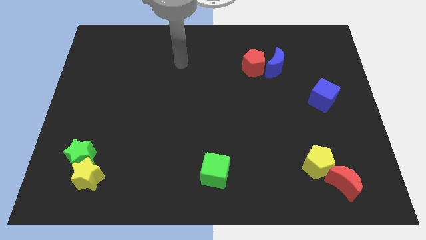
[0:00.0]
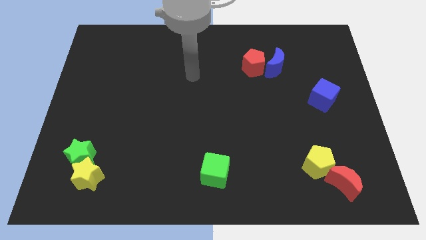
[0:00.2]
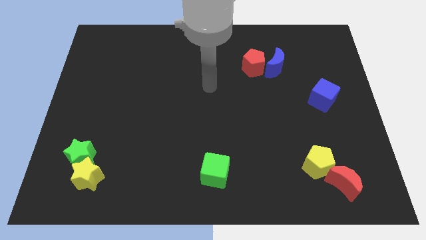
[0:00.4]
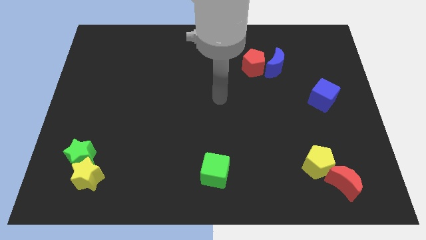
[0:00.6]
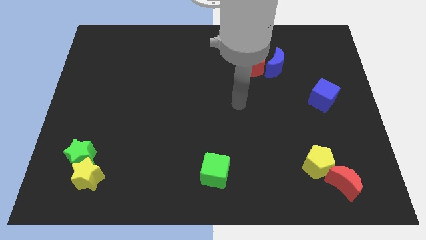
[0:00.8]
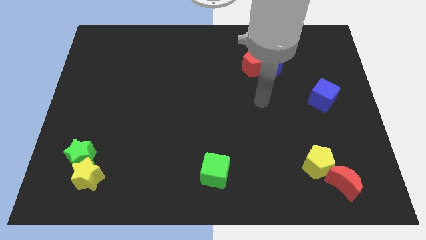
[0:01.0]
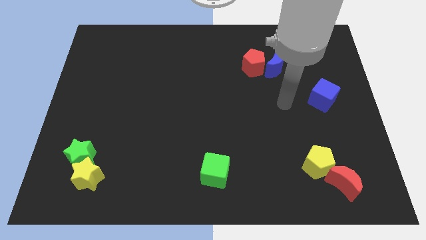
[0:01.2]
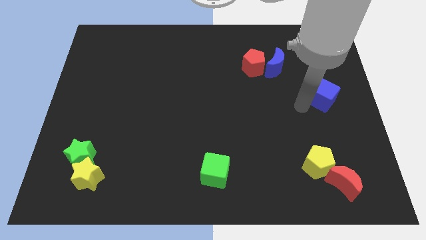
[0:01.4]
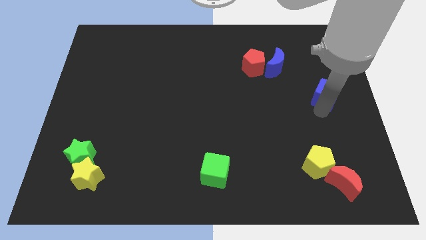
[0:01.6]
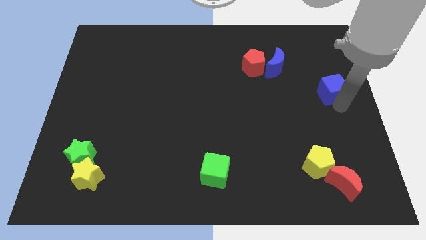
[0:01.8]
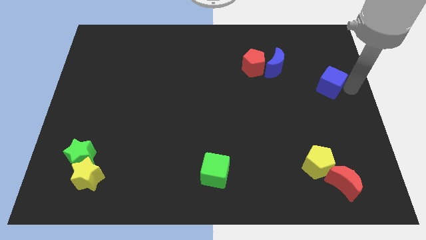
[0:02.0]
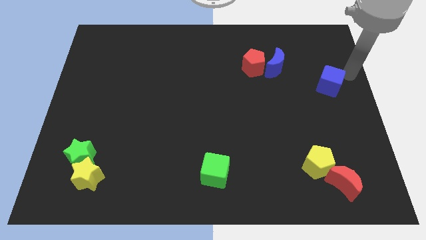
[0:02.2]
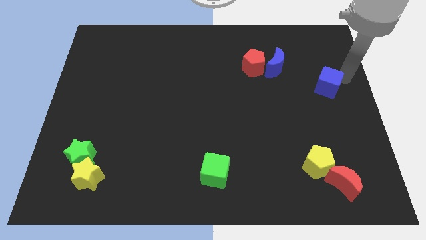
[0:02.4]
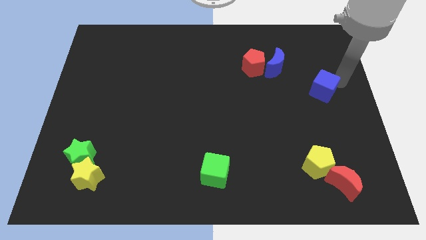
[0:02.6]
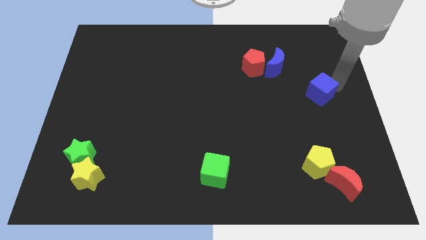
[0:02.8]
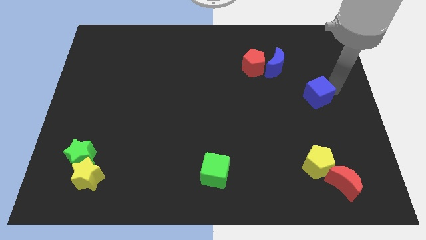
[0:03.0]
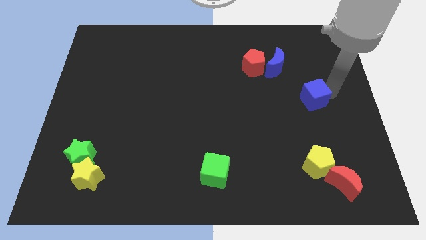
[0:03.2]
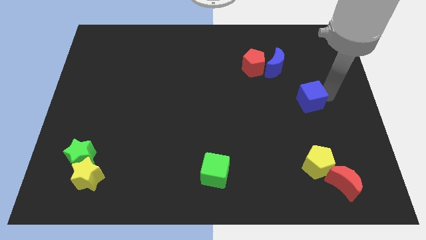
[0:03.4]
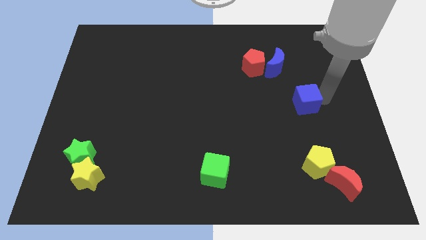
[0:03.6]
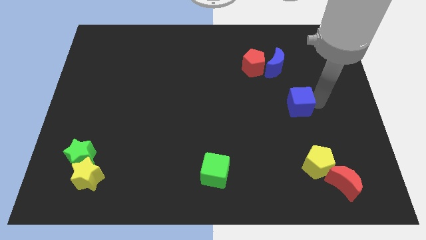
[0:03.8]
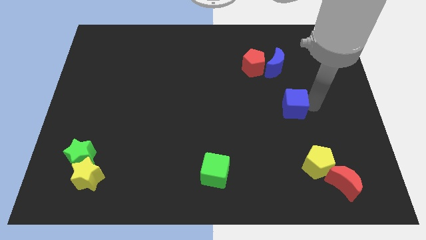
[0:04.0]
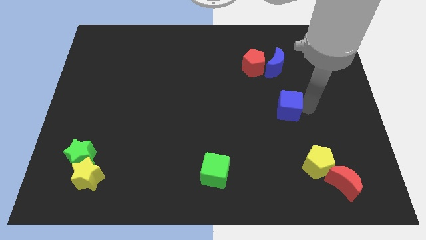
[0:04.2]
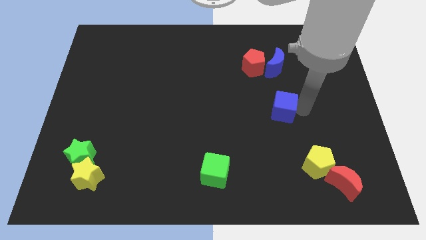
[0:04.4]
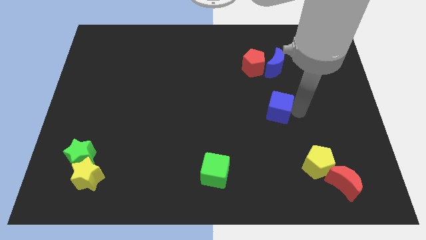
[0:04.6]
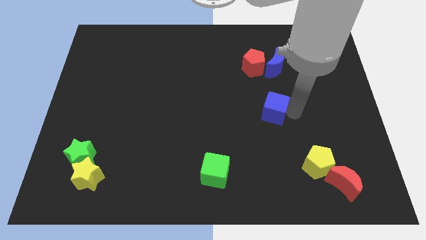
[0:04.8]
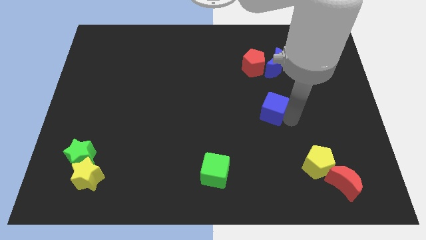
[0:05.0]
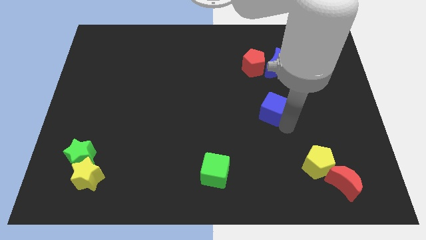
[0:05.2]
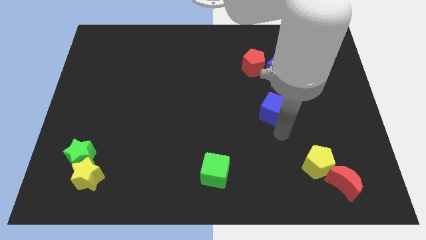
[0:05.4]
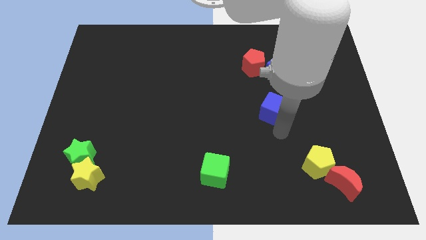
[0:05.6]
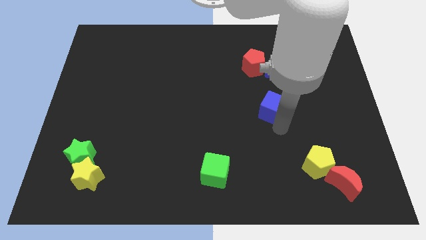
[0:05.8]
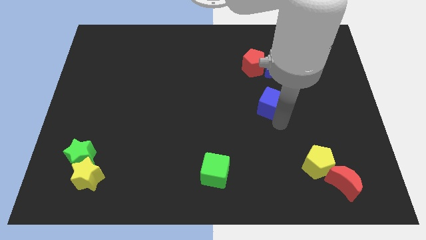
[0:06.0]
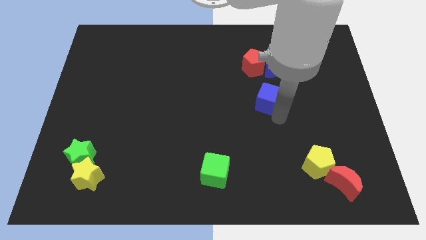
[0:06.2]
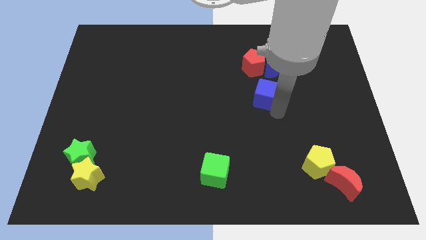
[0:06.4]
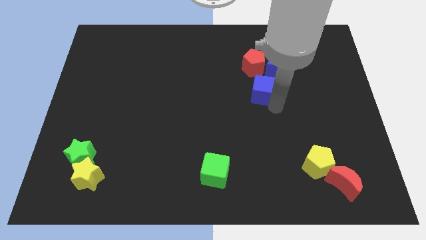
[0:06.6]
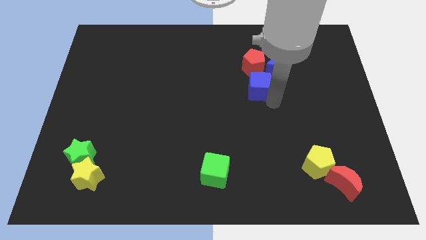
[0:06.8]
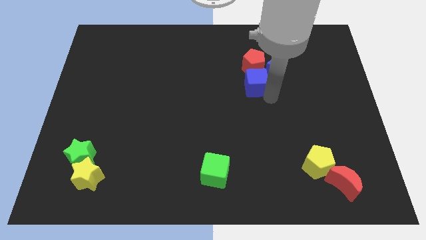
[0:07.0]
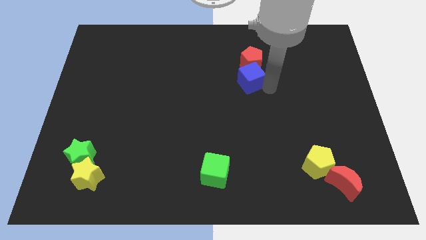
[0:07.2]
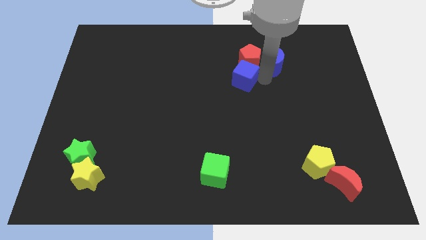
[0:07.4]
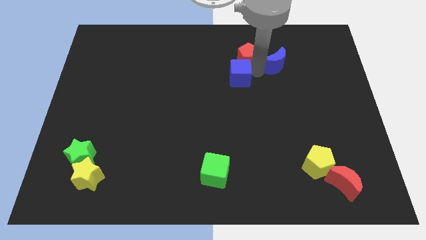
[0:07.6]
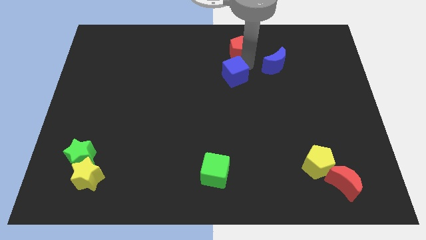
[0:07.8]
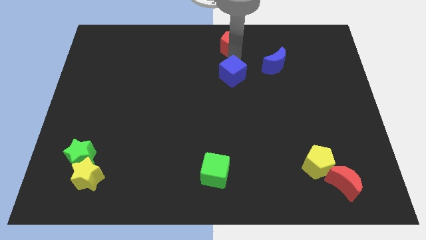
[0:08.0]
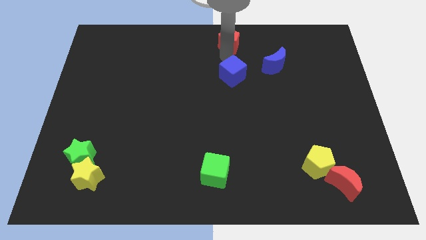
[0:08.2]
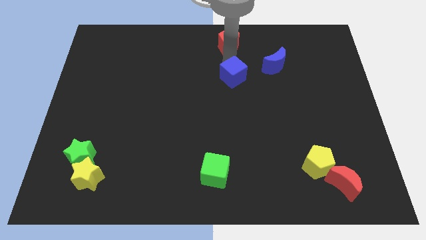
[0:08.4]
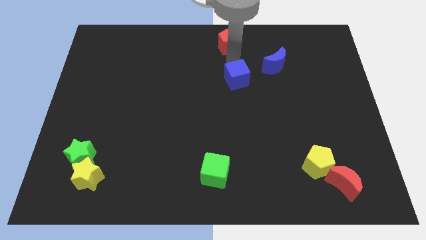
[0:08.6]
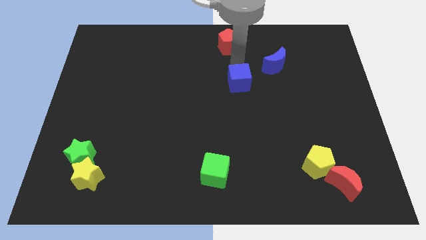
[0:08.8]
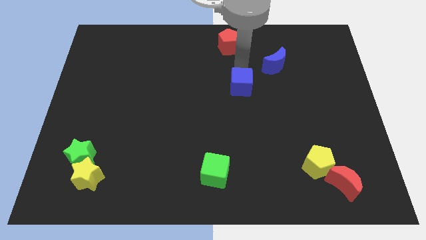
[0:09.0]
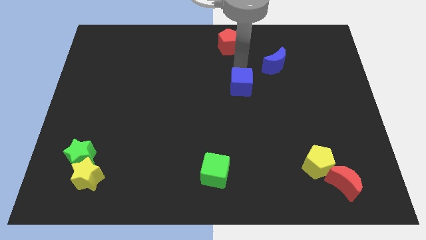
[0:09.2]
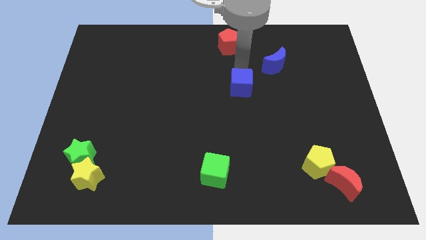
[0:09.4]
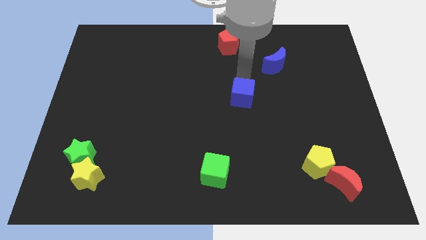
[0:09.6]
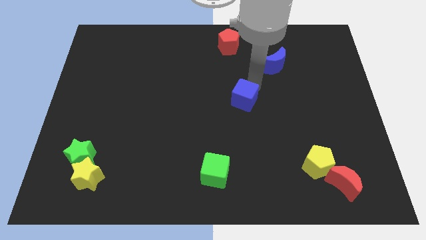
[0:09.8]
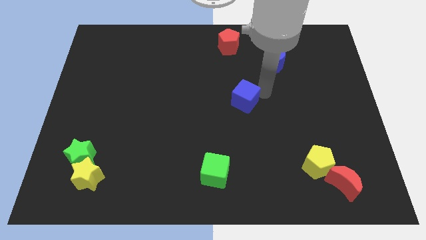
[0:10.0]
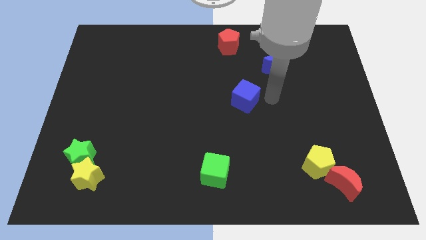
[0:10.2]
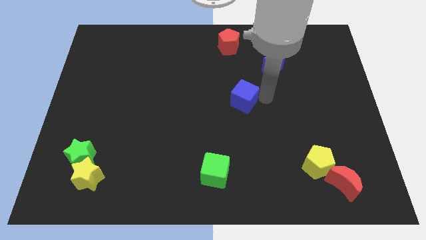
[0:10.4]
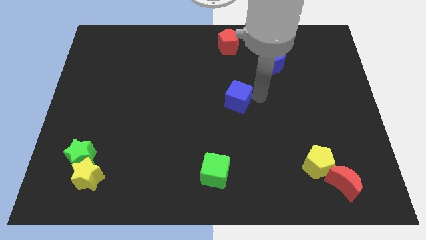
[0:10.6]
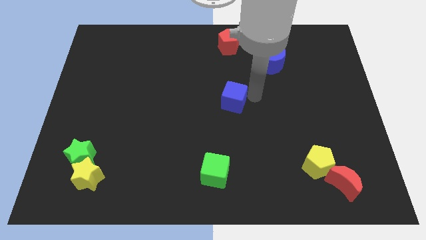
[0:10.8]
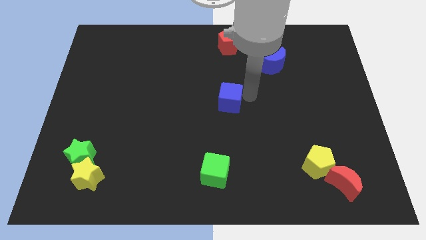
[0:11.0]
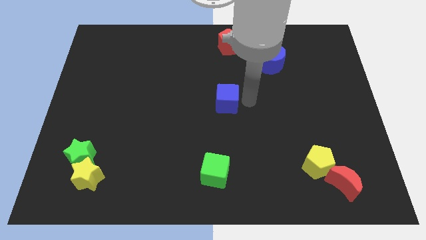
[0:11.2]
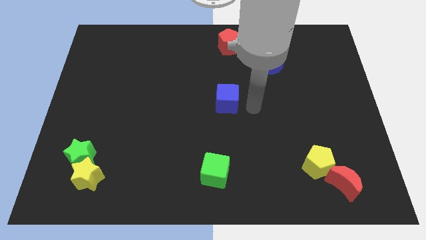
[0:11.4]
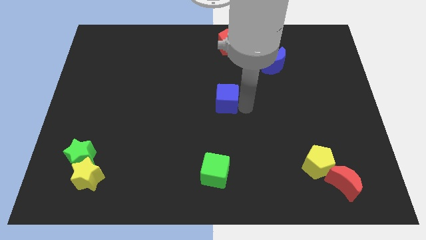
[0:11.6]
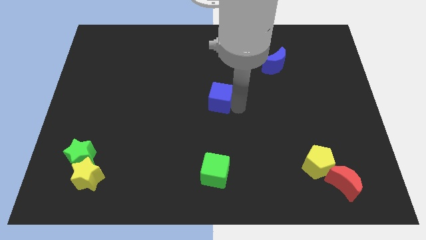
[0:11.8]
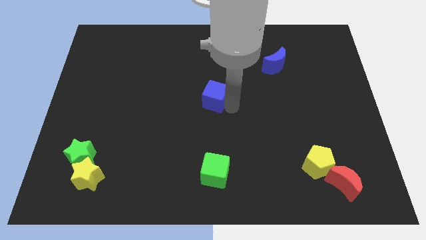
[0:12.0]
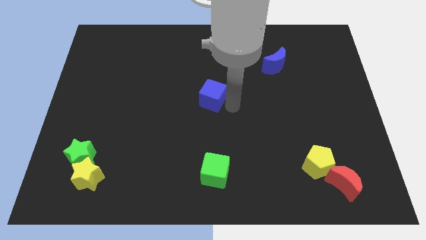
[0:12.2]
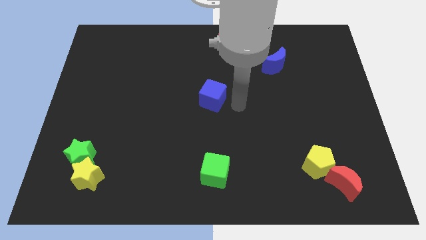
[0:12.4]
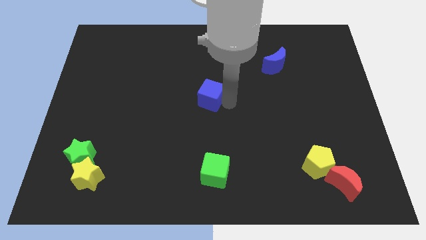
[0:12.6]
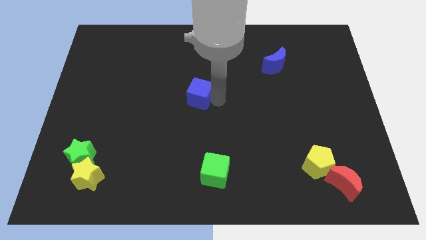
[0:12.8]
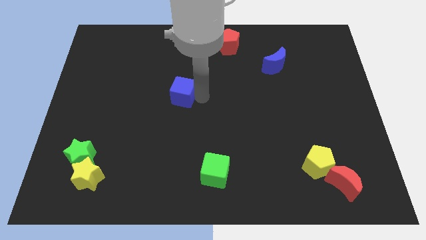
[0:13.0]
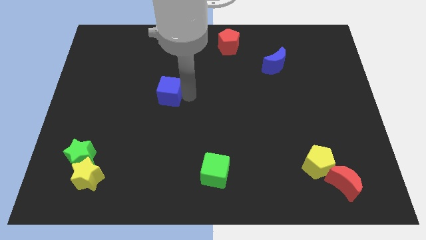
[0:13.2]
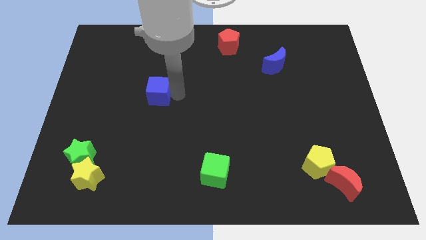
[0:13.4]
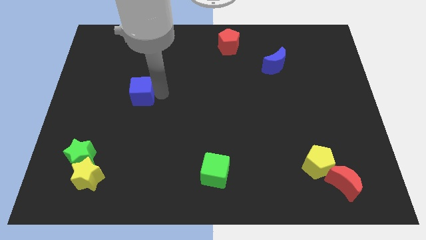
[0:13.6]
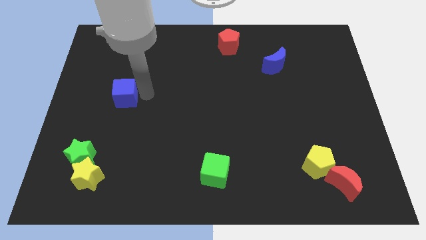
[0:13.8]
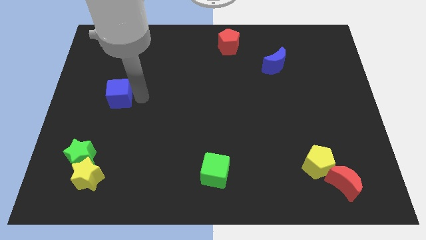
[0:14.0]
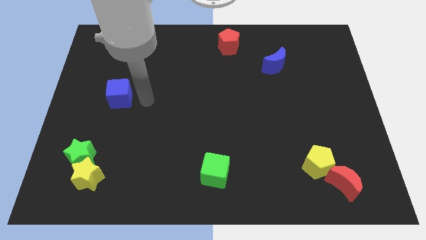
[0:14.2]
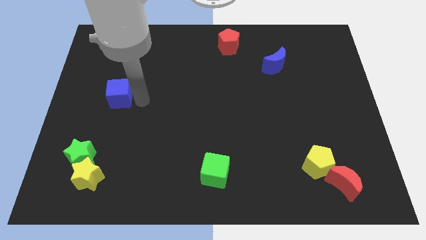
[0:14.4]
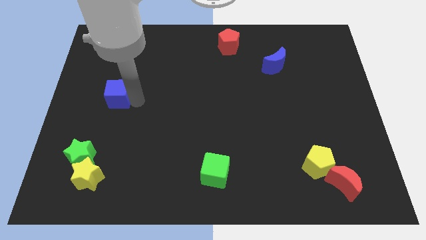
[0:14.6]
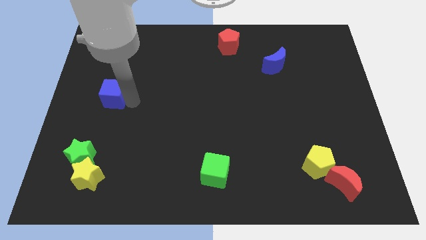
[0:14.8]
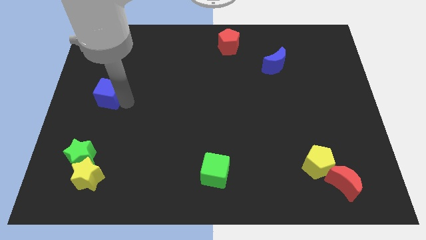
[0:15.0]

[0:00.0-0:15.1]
put the blue cube to the center left
